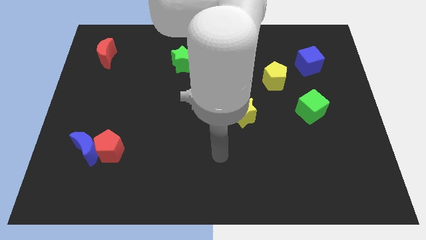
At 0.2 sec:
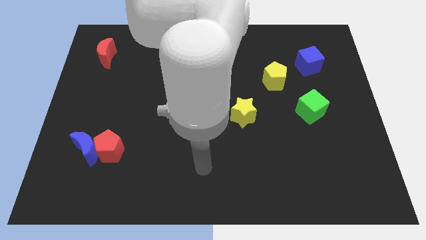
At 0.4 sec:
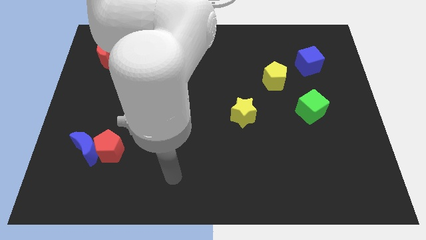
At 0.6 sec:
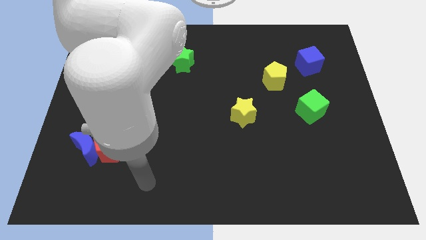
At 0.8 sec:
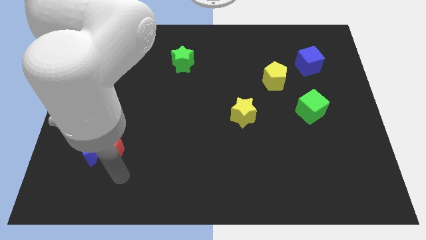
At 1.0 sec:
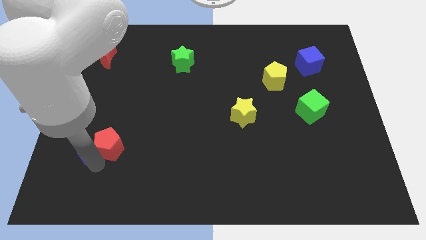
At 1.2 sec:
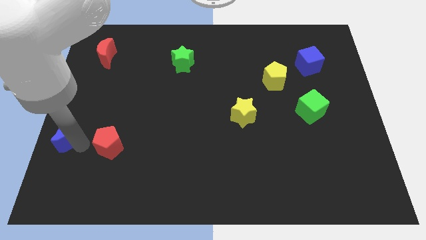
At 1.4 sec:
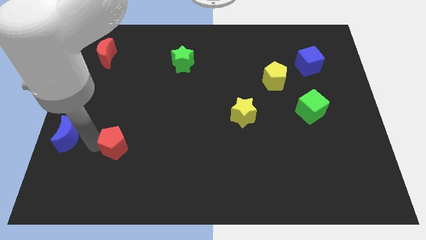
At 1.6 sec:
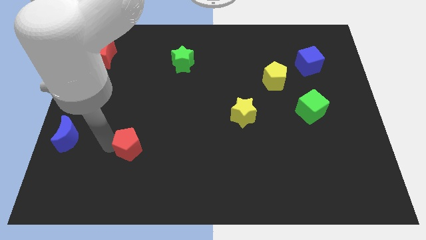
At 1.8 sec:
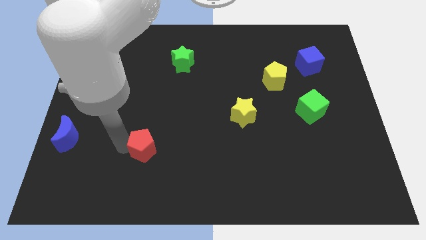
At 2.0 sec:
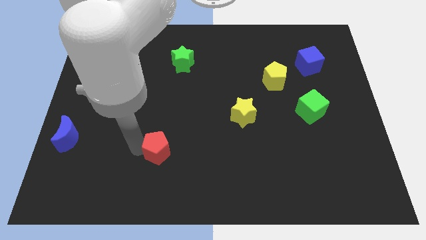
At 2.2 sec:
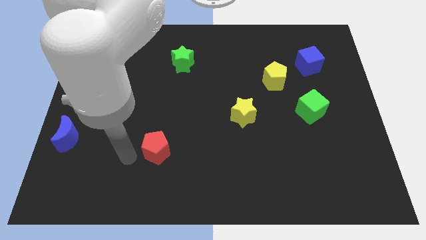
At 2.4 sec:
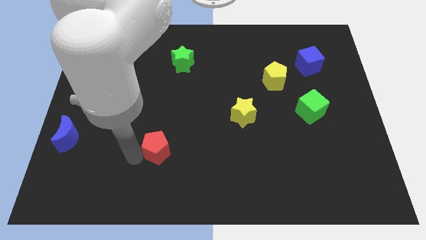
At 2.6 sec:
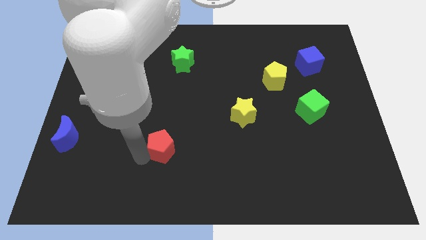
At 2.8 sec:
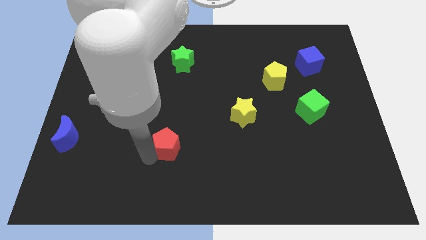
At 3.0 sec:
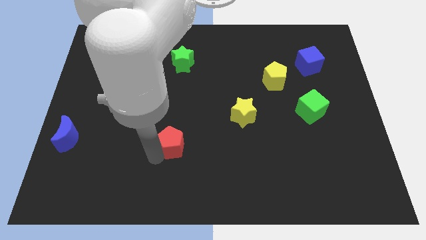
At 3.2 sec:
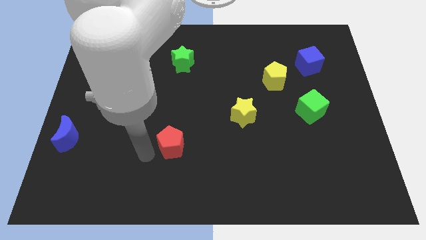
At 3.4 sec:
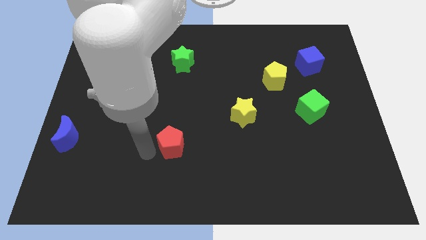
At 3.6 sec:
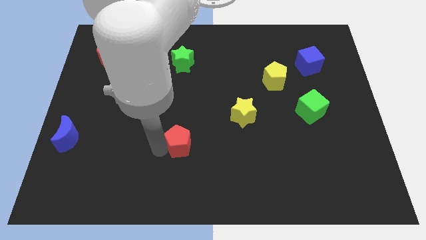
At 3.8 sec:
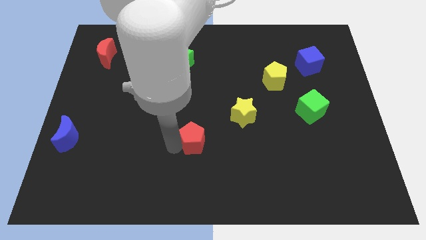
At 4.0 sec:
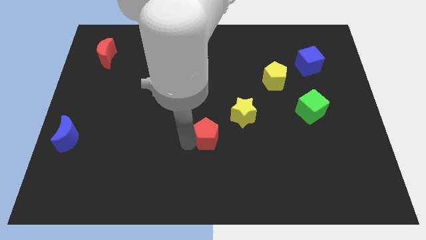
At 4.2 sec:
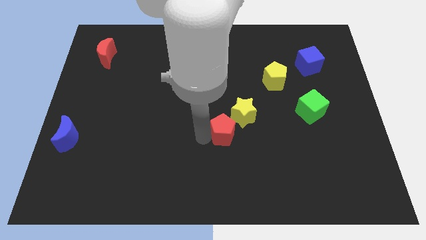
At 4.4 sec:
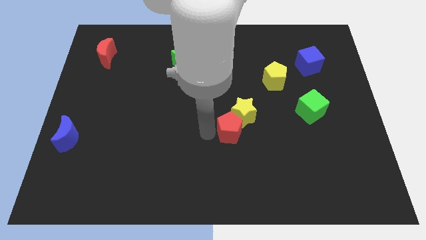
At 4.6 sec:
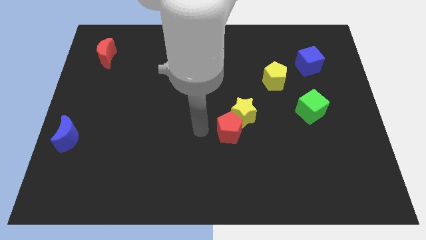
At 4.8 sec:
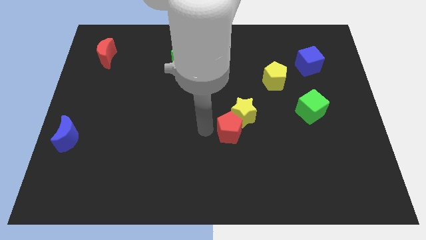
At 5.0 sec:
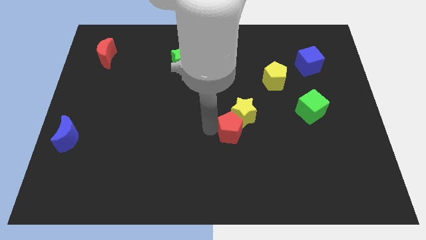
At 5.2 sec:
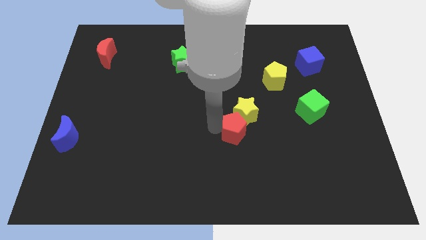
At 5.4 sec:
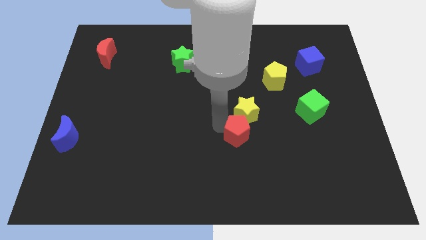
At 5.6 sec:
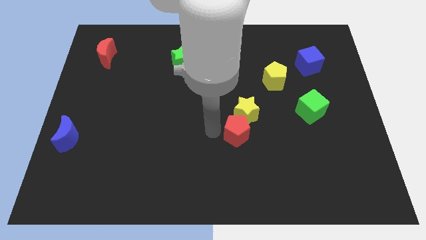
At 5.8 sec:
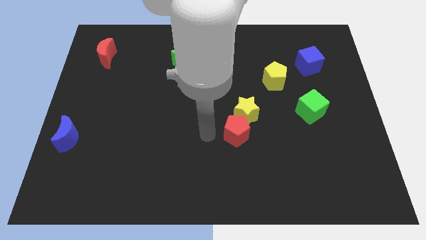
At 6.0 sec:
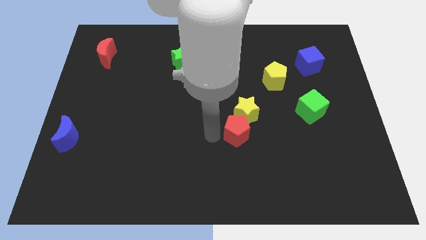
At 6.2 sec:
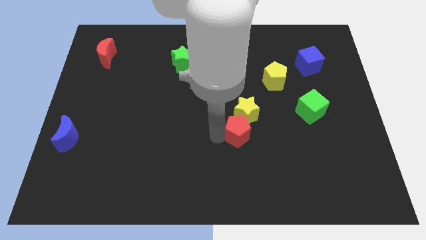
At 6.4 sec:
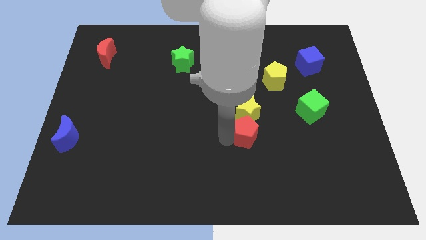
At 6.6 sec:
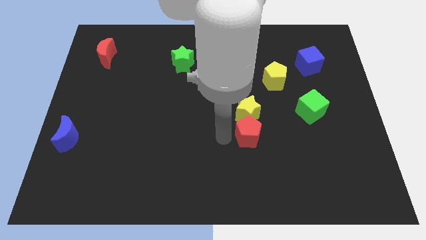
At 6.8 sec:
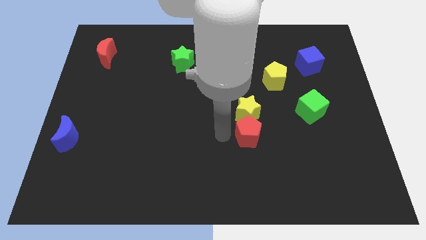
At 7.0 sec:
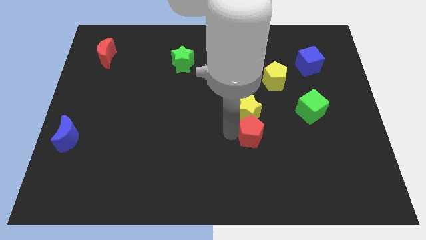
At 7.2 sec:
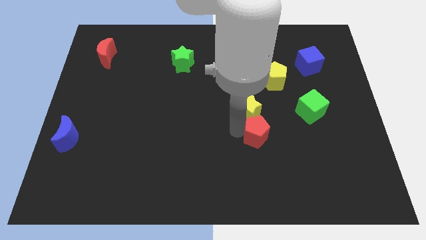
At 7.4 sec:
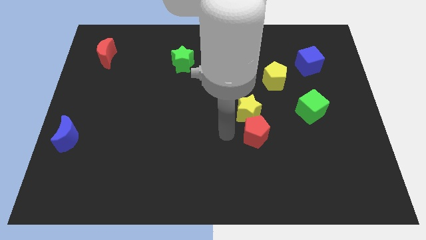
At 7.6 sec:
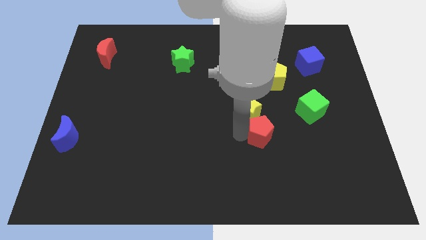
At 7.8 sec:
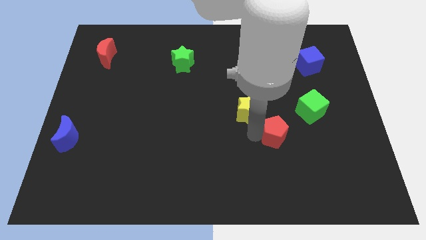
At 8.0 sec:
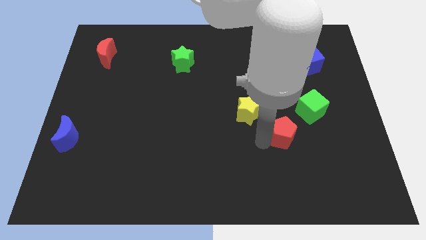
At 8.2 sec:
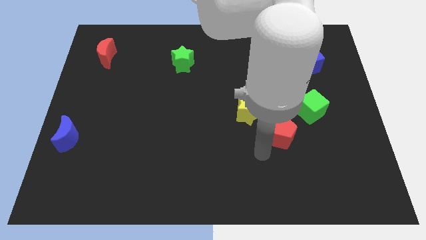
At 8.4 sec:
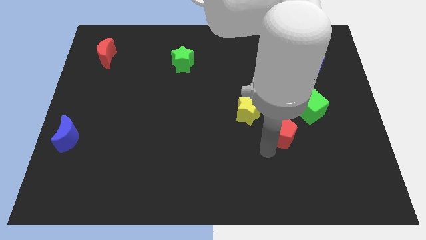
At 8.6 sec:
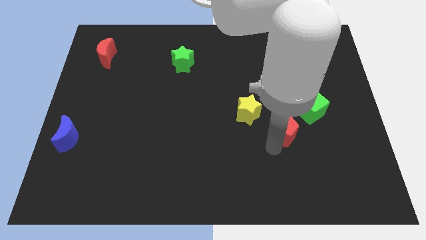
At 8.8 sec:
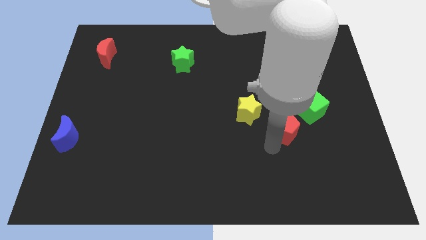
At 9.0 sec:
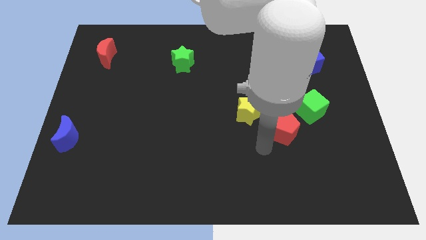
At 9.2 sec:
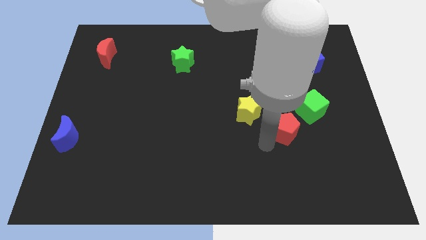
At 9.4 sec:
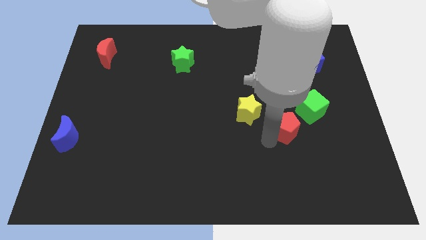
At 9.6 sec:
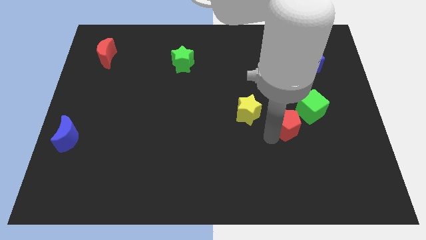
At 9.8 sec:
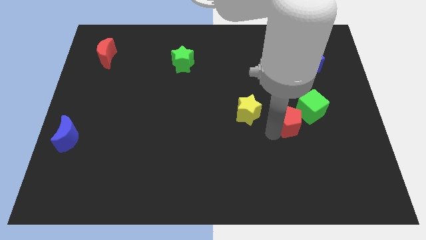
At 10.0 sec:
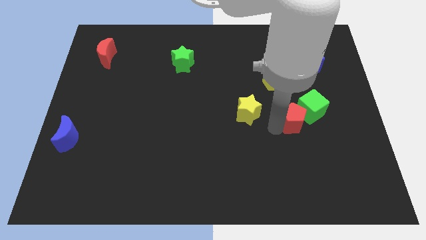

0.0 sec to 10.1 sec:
push the red pentagon close to the green cube

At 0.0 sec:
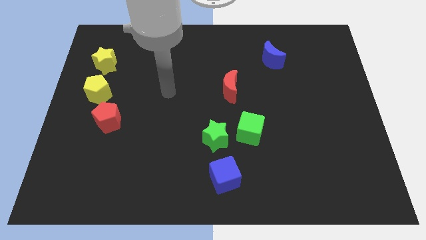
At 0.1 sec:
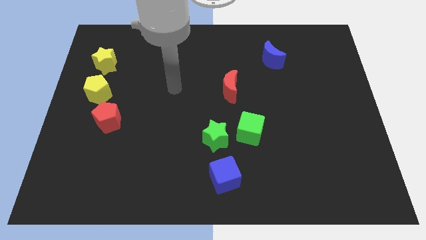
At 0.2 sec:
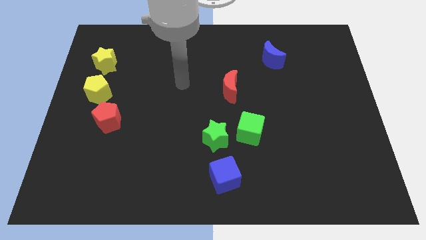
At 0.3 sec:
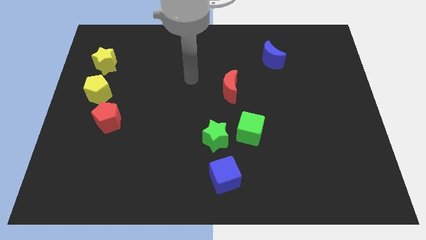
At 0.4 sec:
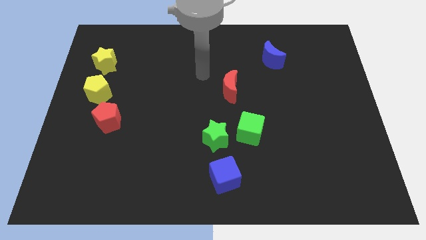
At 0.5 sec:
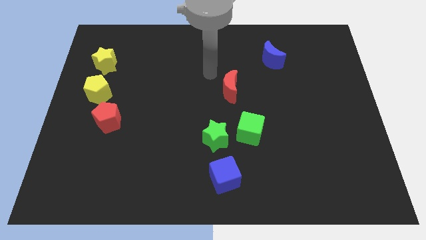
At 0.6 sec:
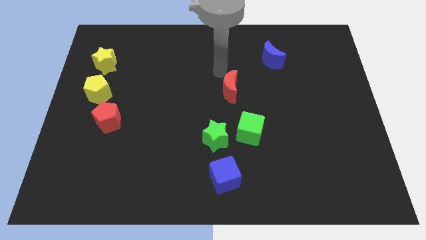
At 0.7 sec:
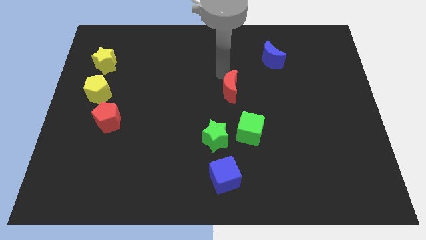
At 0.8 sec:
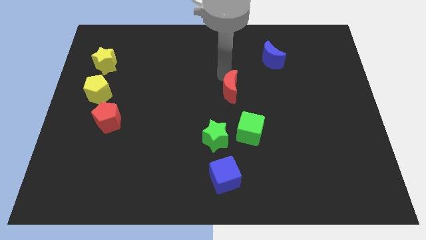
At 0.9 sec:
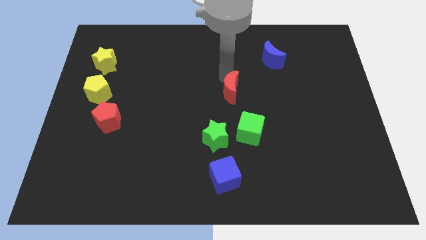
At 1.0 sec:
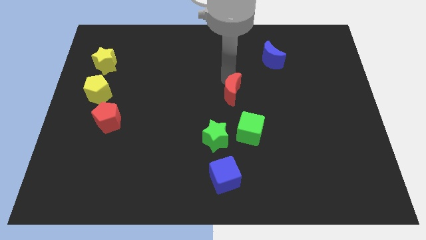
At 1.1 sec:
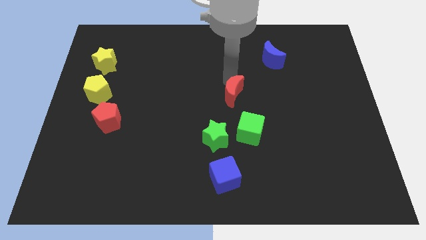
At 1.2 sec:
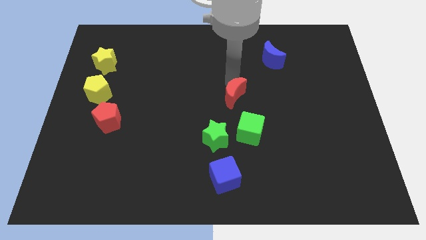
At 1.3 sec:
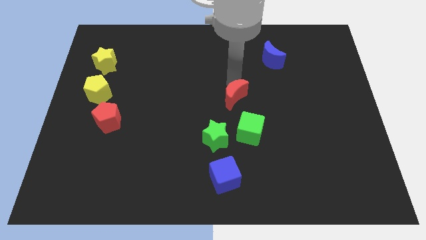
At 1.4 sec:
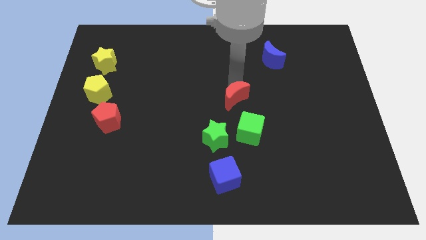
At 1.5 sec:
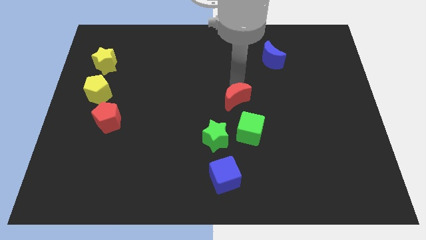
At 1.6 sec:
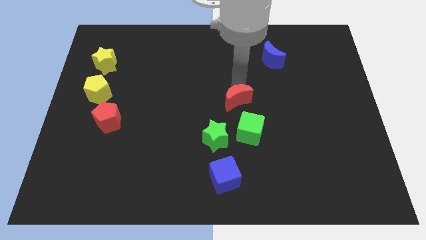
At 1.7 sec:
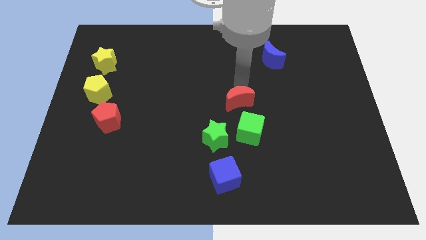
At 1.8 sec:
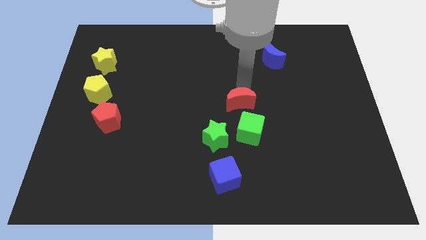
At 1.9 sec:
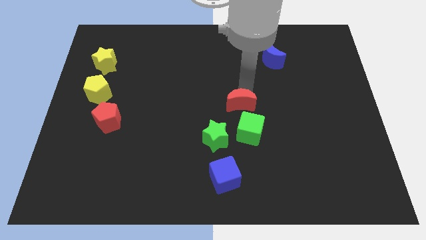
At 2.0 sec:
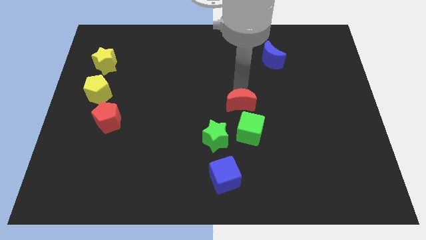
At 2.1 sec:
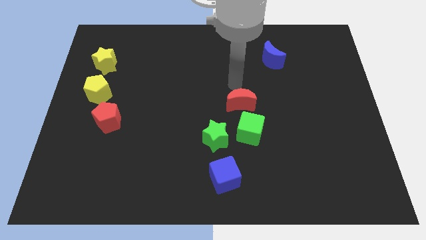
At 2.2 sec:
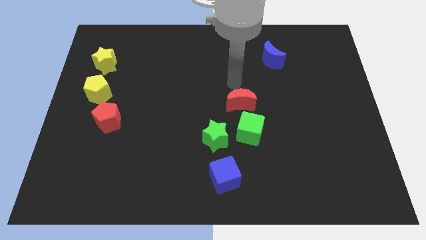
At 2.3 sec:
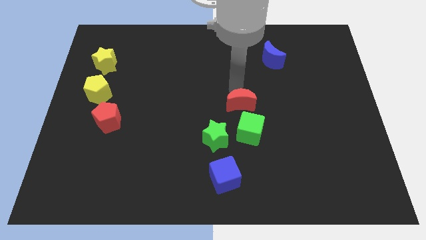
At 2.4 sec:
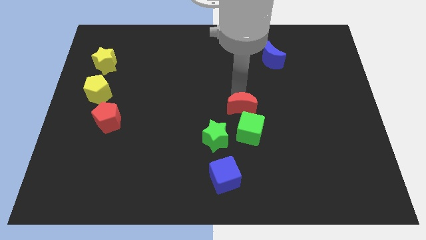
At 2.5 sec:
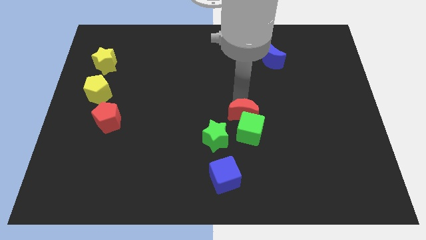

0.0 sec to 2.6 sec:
put the red moon to the green cube
